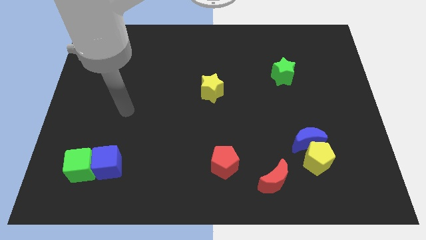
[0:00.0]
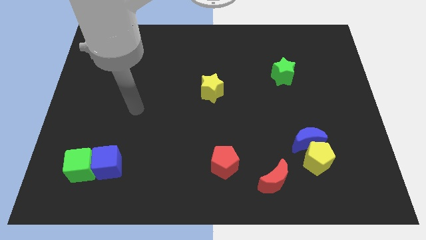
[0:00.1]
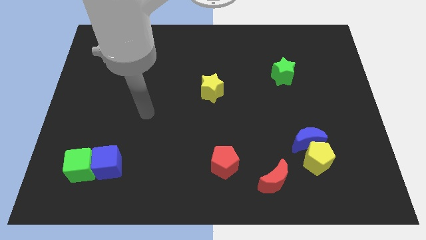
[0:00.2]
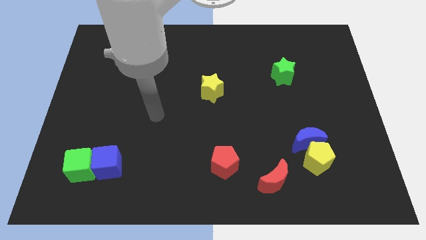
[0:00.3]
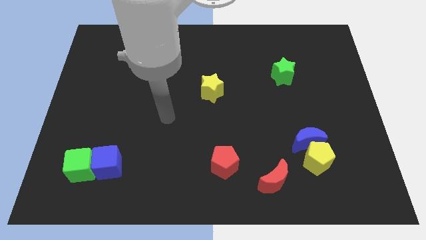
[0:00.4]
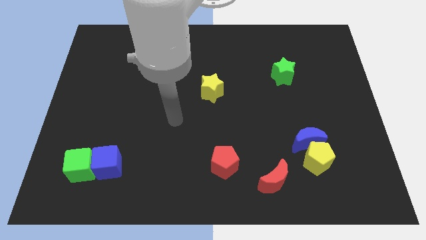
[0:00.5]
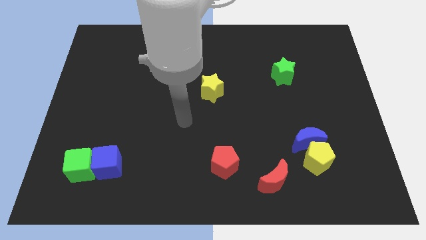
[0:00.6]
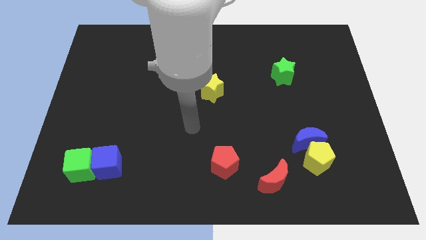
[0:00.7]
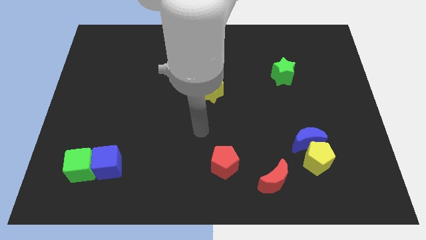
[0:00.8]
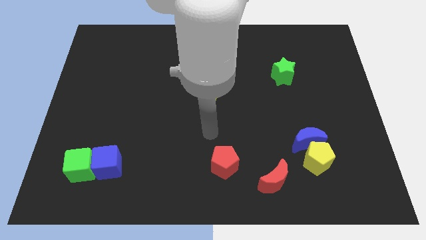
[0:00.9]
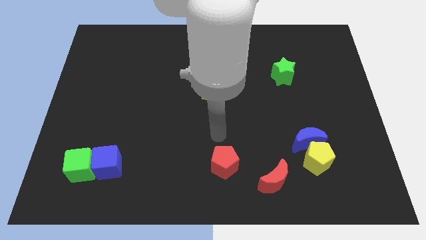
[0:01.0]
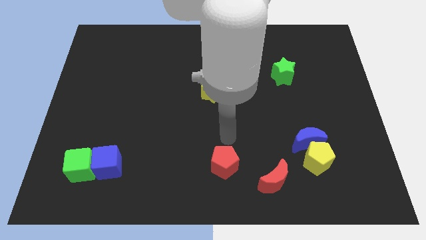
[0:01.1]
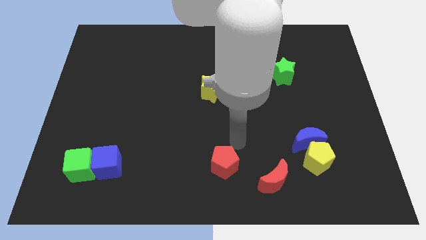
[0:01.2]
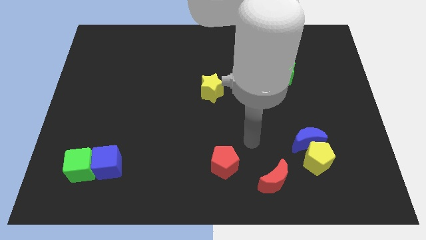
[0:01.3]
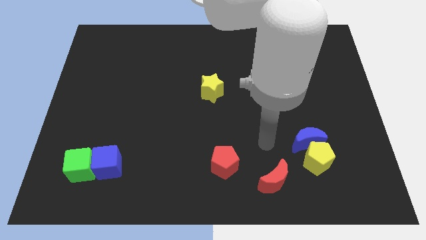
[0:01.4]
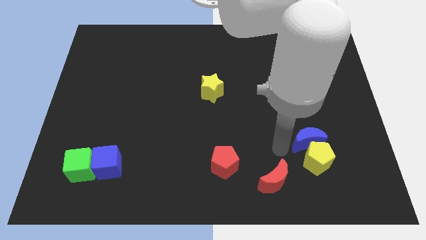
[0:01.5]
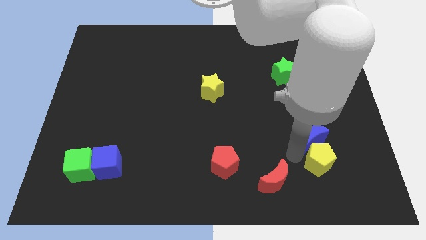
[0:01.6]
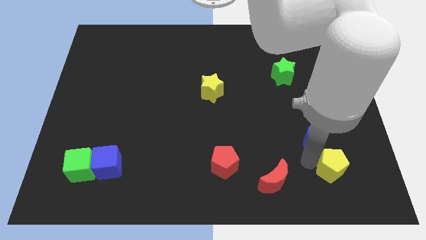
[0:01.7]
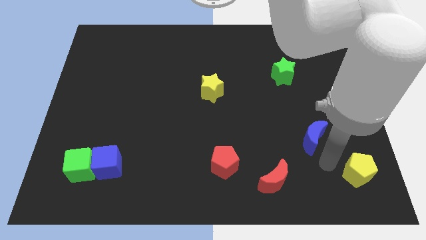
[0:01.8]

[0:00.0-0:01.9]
separate the blue moon from the yellow pentagon

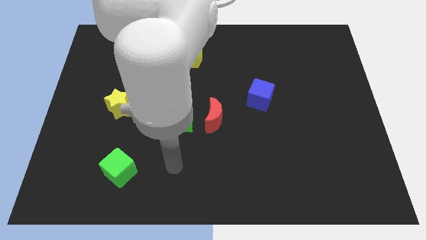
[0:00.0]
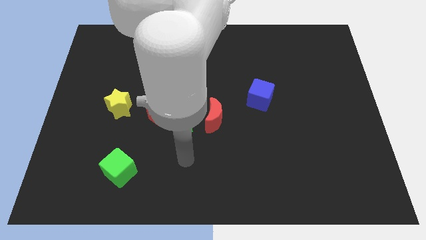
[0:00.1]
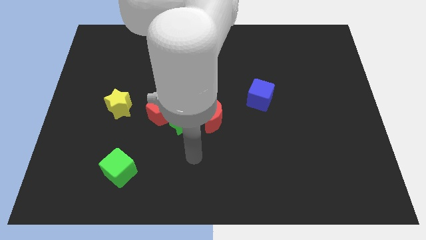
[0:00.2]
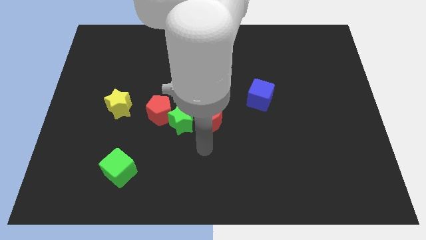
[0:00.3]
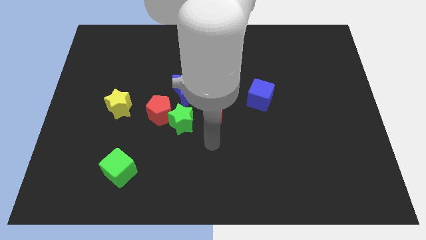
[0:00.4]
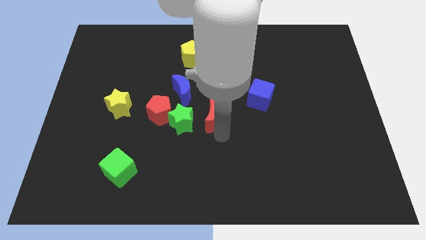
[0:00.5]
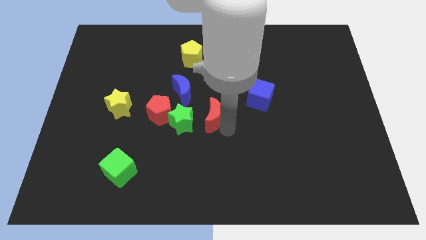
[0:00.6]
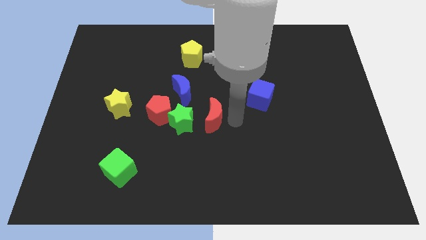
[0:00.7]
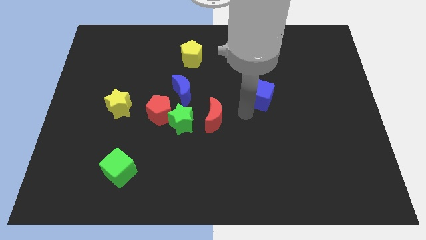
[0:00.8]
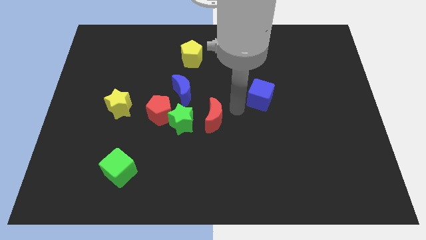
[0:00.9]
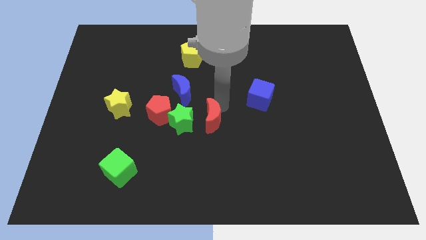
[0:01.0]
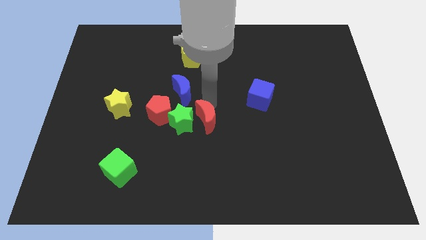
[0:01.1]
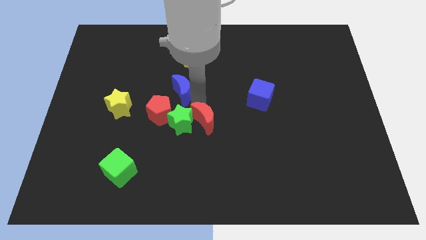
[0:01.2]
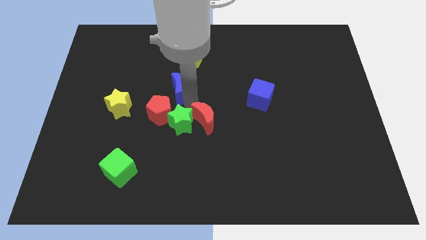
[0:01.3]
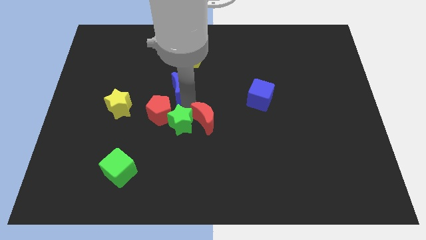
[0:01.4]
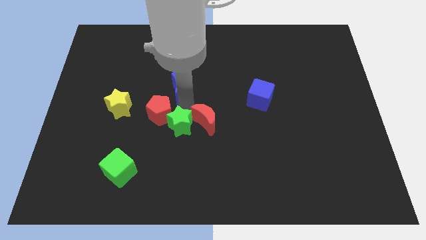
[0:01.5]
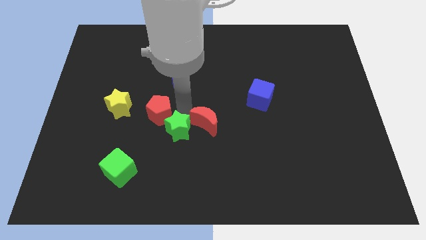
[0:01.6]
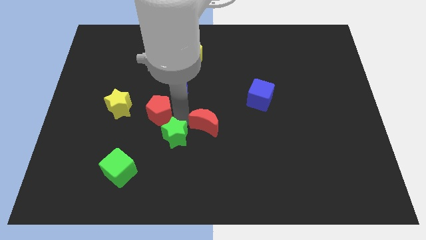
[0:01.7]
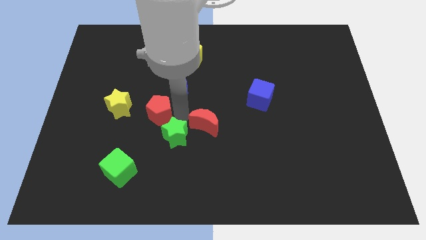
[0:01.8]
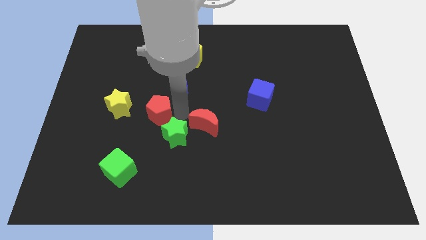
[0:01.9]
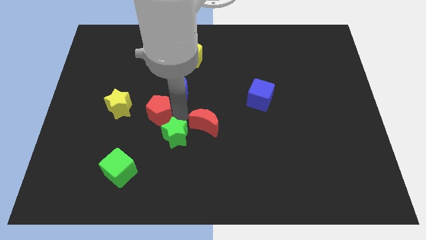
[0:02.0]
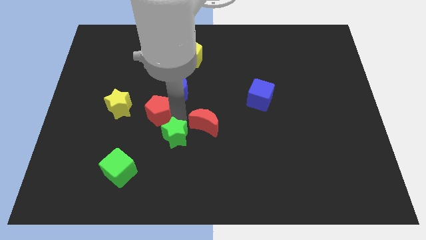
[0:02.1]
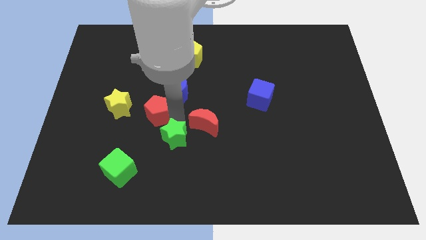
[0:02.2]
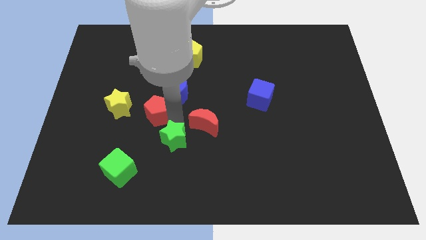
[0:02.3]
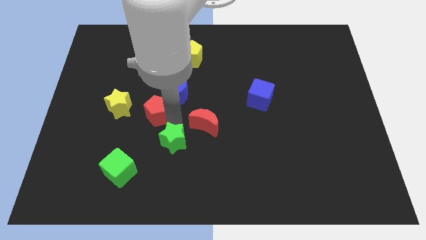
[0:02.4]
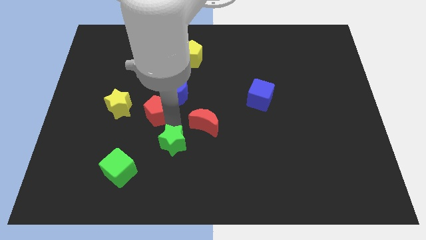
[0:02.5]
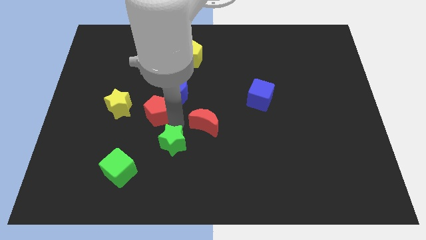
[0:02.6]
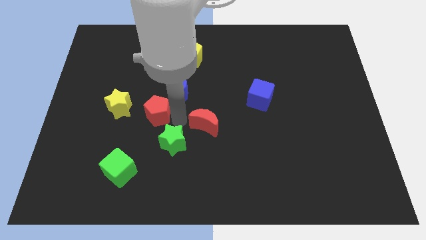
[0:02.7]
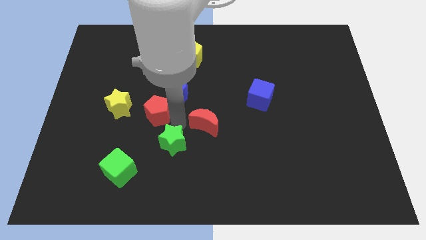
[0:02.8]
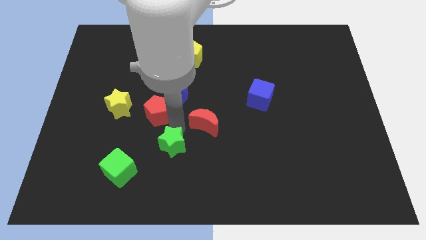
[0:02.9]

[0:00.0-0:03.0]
separate the green star from the group

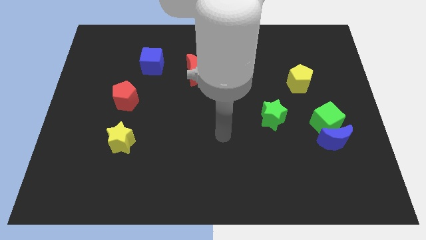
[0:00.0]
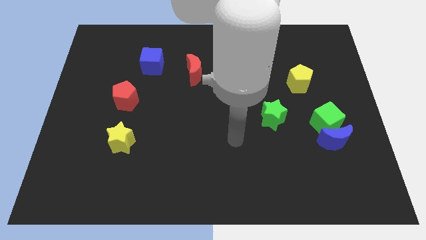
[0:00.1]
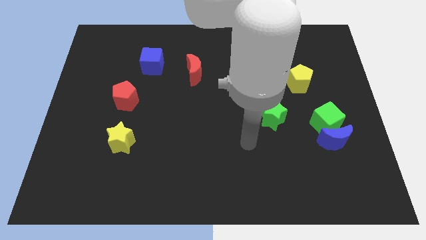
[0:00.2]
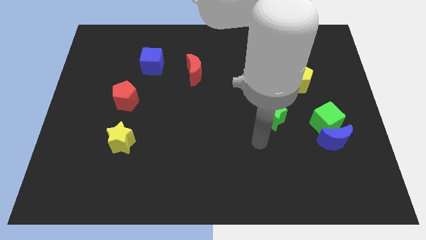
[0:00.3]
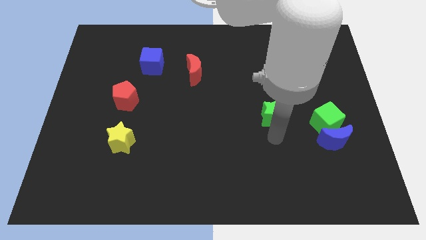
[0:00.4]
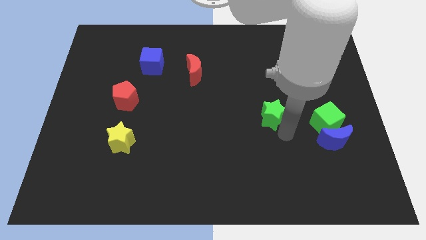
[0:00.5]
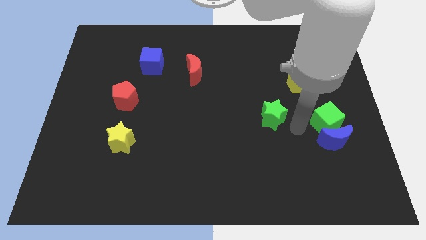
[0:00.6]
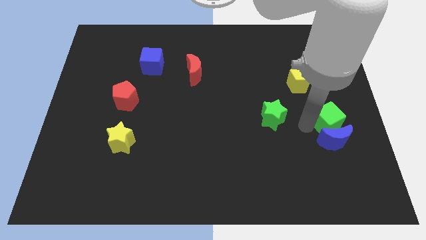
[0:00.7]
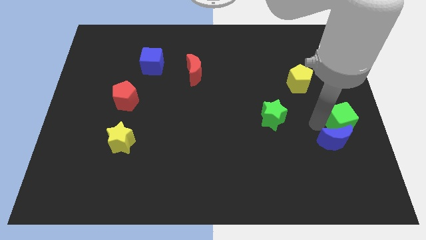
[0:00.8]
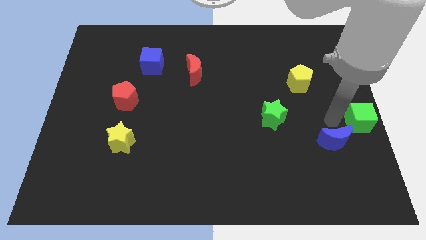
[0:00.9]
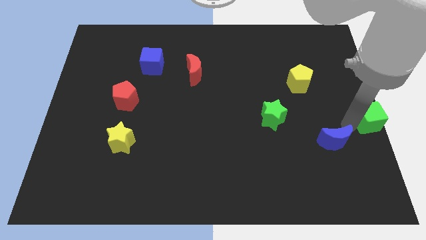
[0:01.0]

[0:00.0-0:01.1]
pull the blue moon apart from the green cube

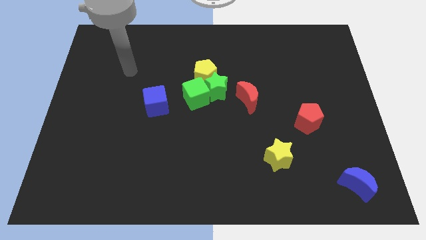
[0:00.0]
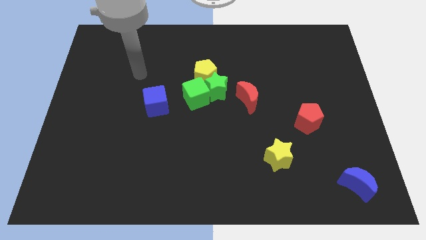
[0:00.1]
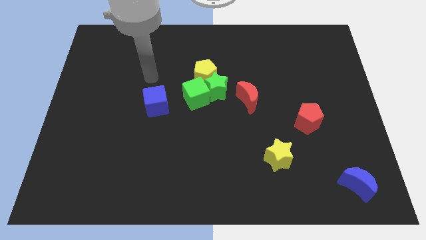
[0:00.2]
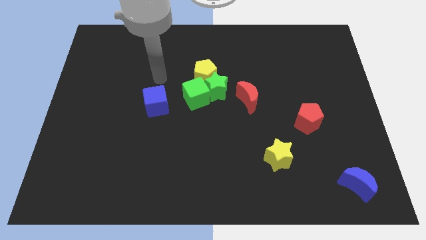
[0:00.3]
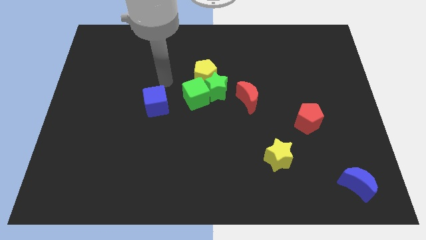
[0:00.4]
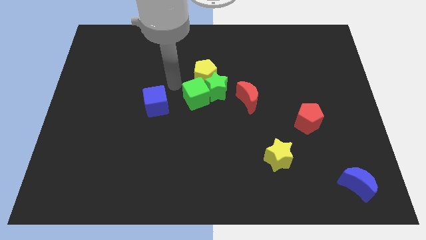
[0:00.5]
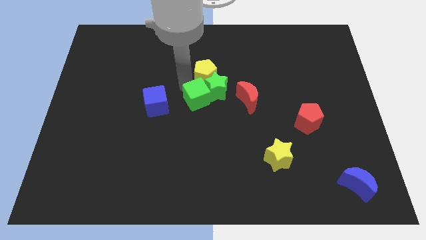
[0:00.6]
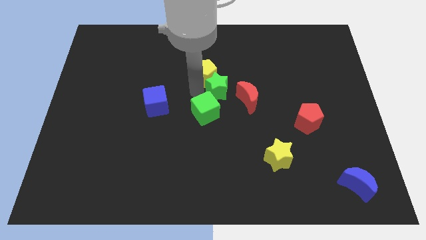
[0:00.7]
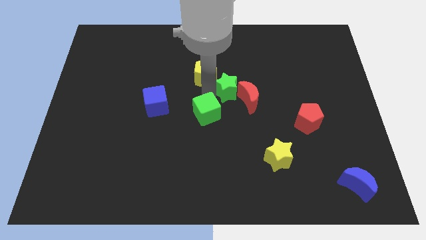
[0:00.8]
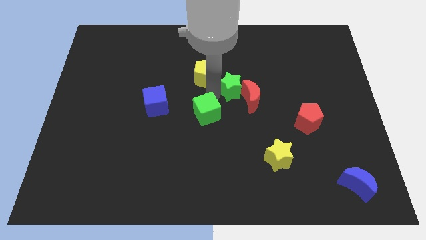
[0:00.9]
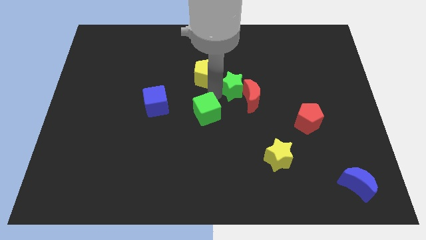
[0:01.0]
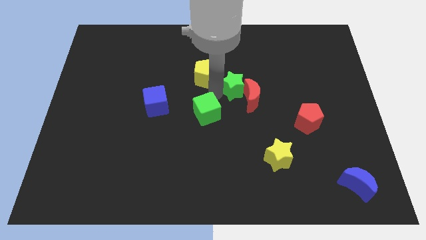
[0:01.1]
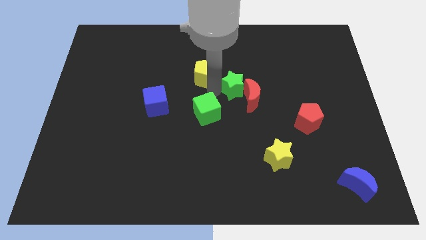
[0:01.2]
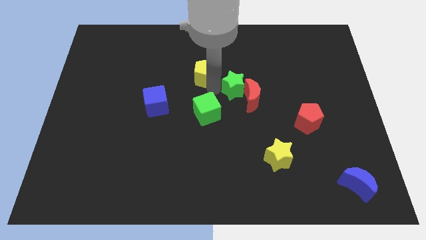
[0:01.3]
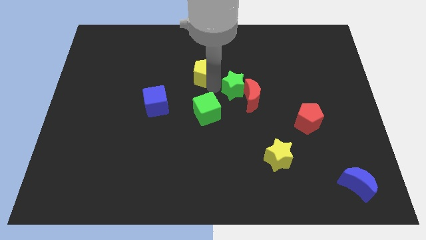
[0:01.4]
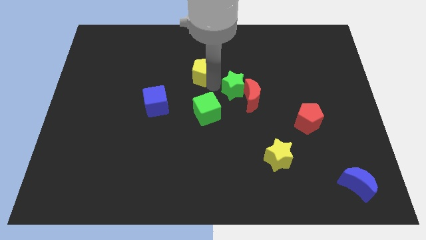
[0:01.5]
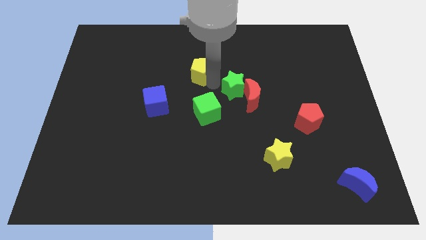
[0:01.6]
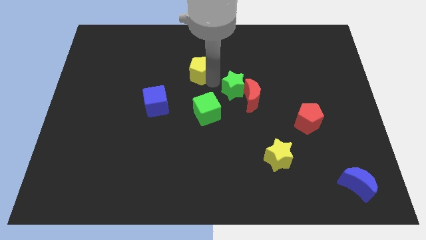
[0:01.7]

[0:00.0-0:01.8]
move the yellow pentagon away from the green star and green cube

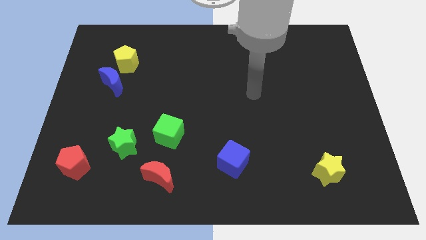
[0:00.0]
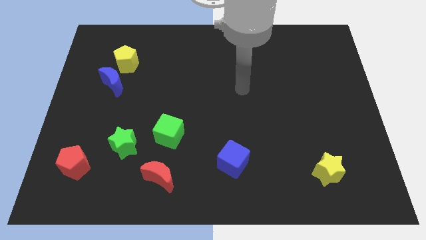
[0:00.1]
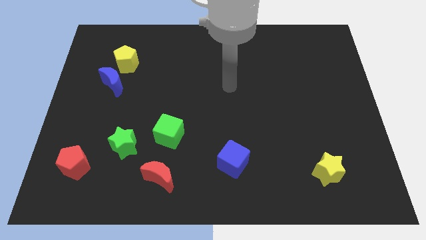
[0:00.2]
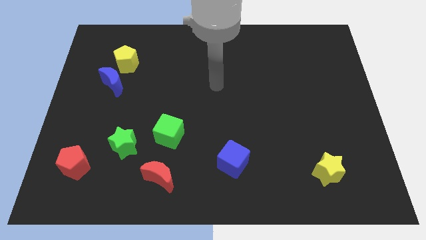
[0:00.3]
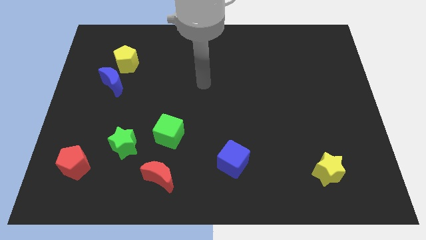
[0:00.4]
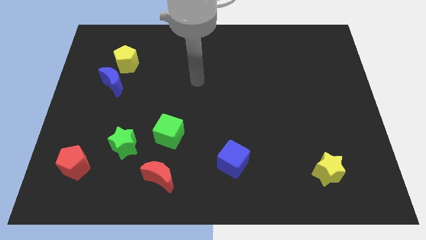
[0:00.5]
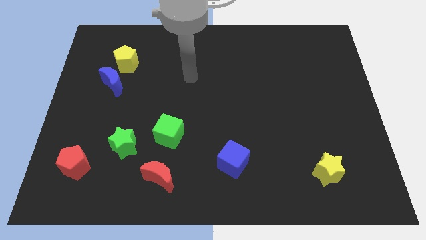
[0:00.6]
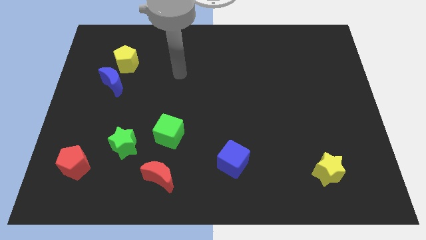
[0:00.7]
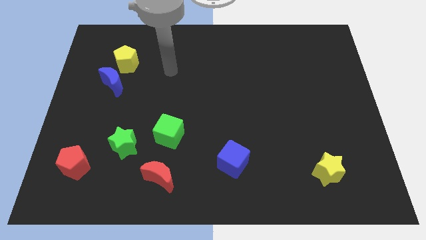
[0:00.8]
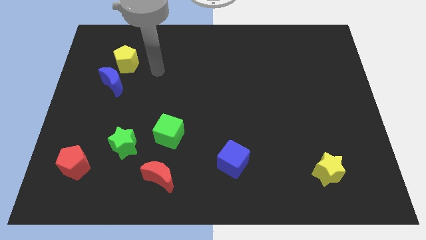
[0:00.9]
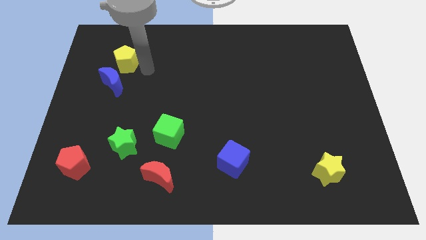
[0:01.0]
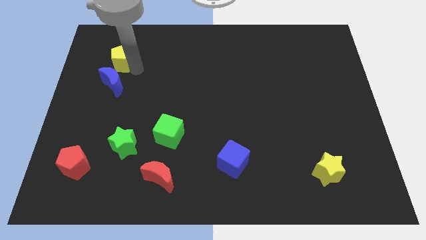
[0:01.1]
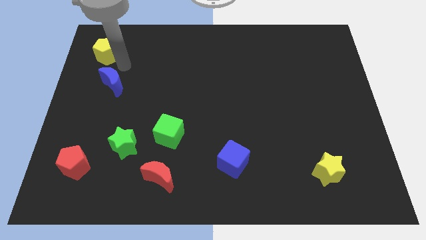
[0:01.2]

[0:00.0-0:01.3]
pull the blue moon apart from the yellow pentagon

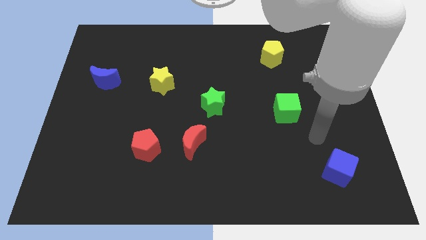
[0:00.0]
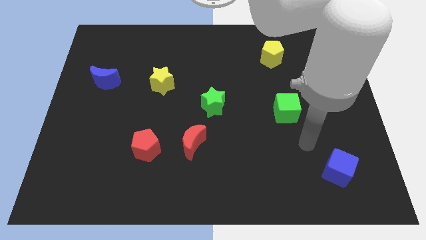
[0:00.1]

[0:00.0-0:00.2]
pull the red moon apart from the red pentagon
